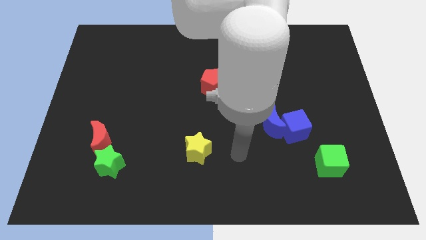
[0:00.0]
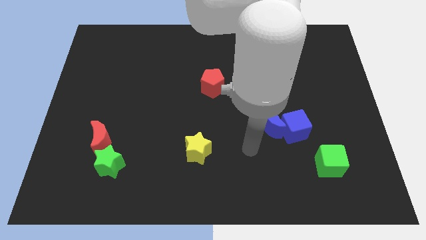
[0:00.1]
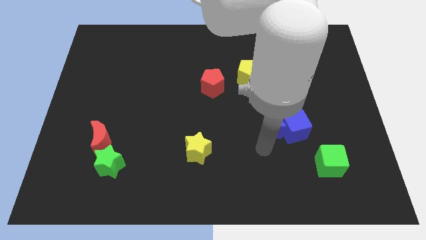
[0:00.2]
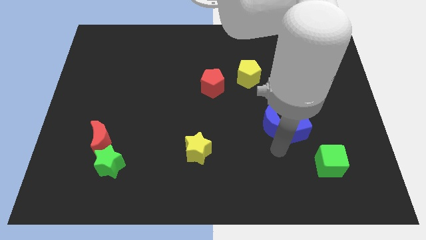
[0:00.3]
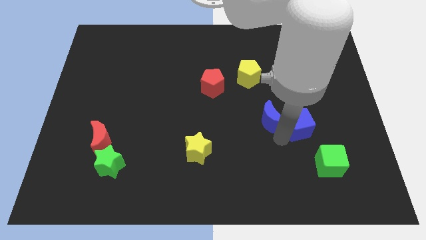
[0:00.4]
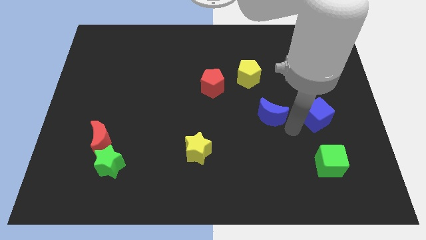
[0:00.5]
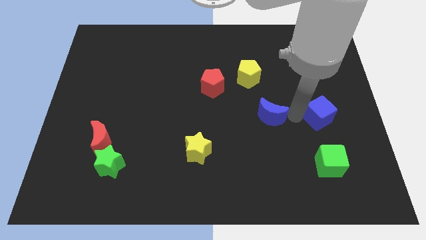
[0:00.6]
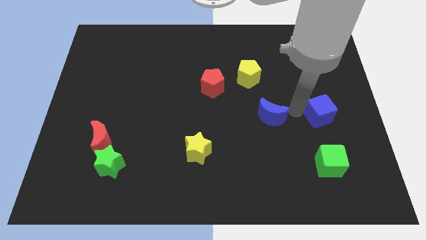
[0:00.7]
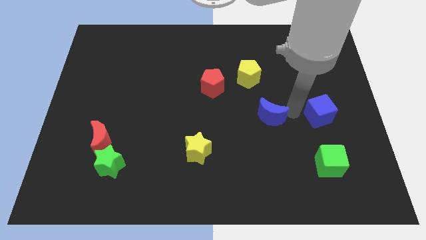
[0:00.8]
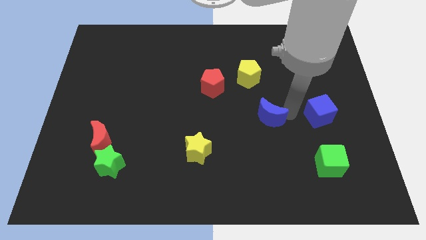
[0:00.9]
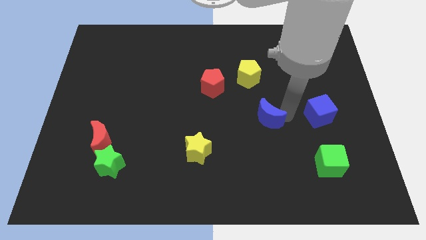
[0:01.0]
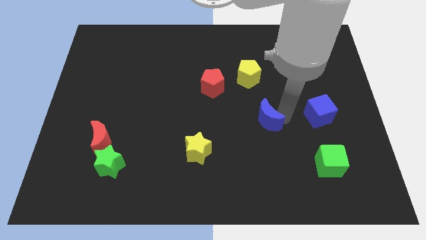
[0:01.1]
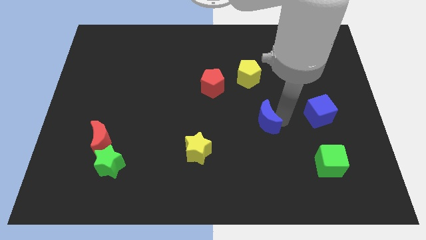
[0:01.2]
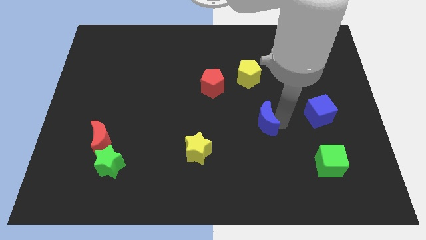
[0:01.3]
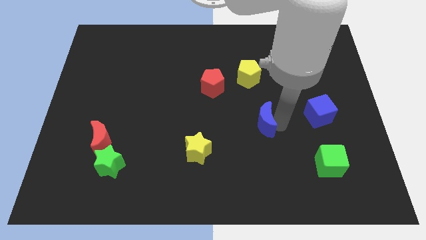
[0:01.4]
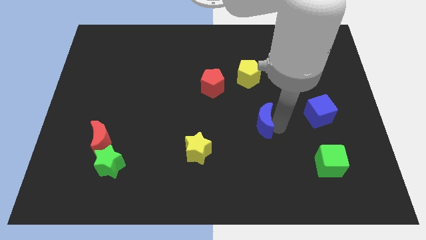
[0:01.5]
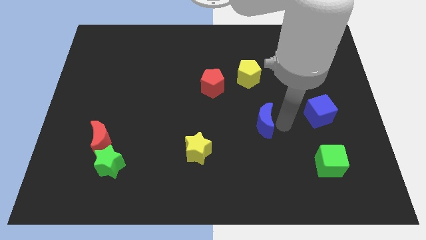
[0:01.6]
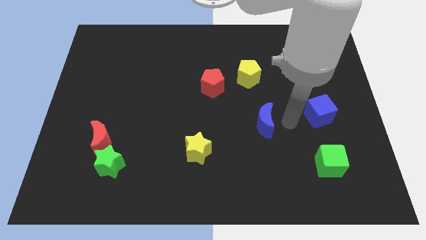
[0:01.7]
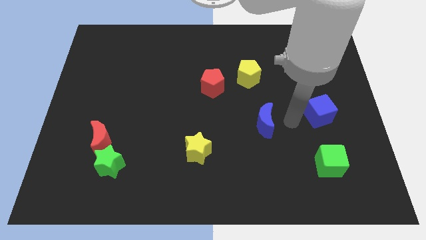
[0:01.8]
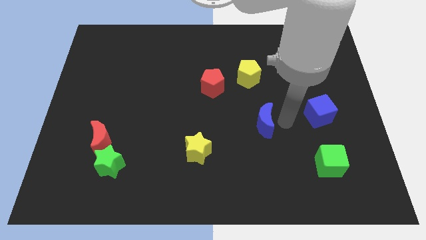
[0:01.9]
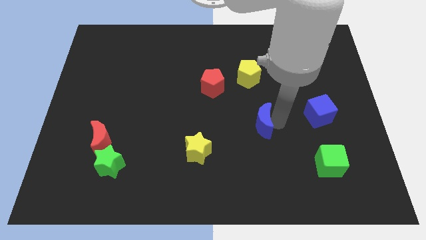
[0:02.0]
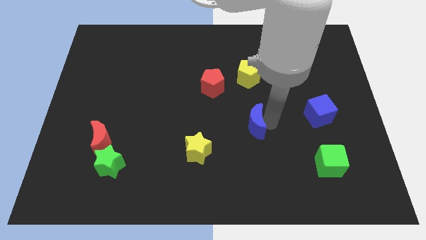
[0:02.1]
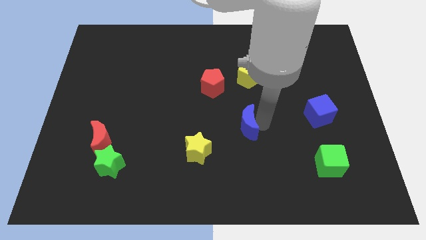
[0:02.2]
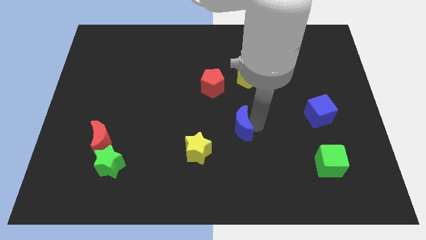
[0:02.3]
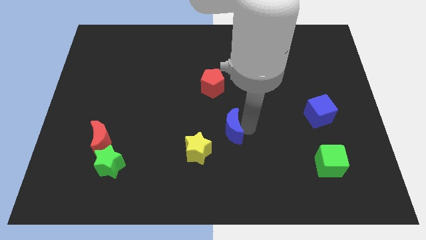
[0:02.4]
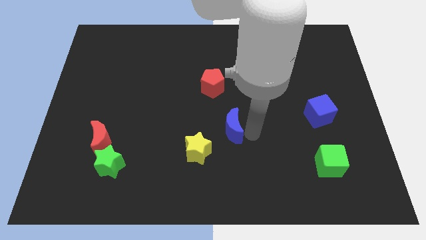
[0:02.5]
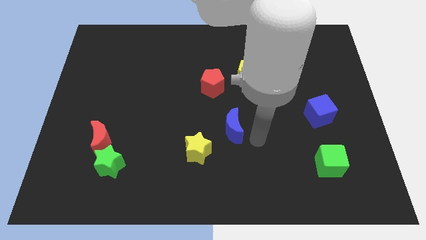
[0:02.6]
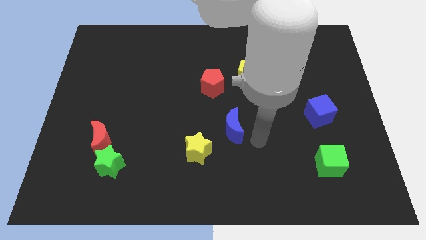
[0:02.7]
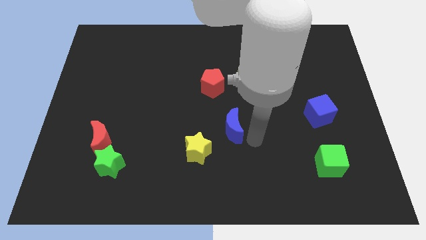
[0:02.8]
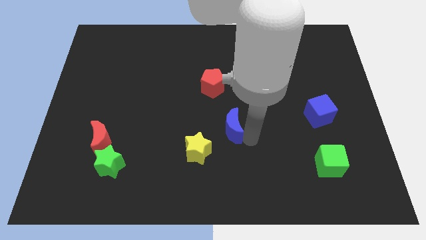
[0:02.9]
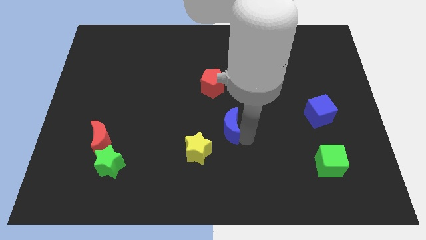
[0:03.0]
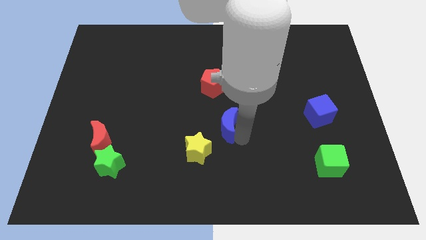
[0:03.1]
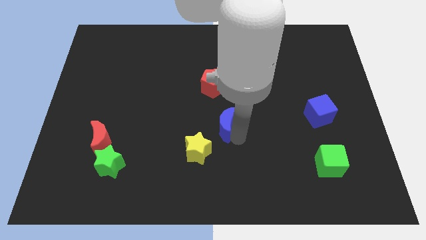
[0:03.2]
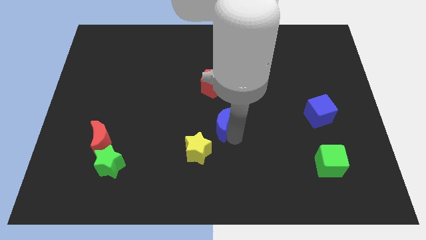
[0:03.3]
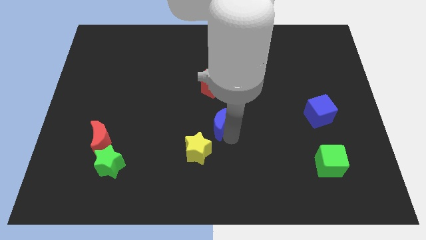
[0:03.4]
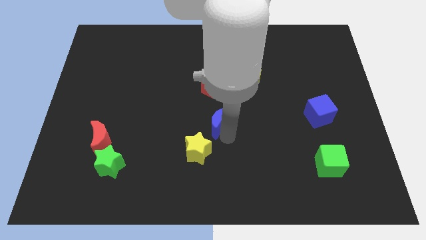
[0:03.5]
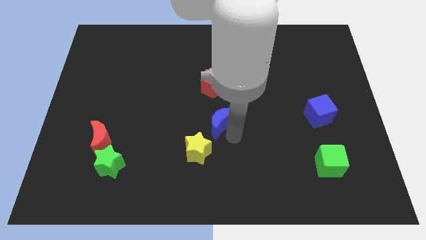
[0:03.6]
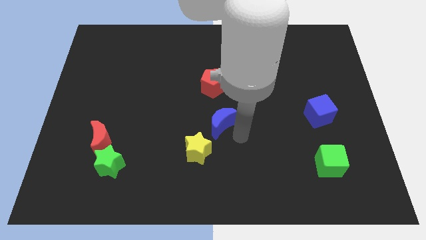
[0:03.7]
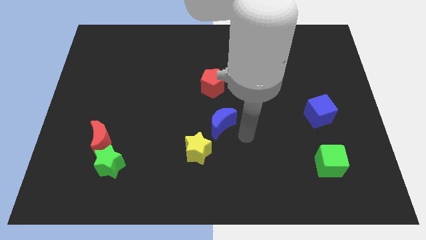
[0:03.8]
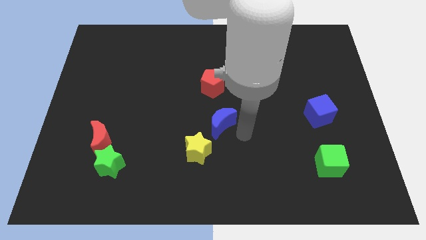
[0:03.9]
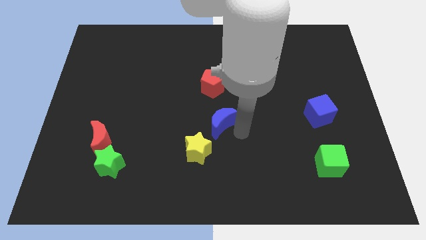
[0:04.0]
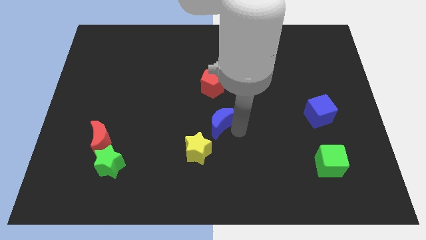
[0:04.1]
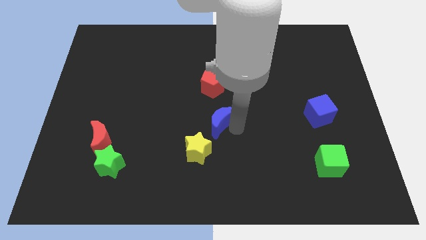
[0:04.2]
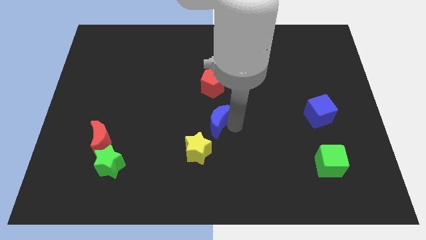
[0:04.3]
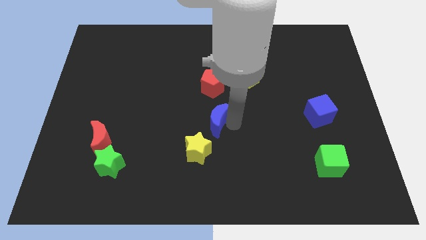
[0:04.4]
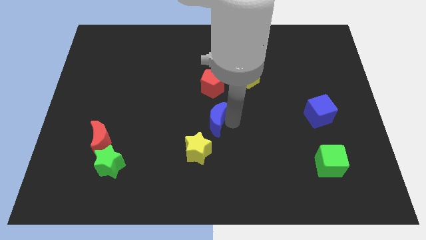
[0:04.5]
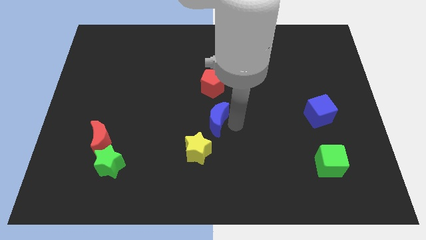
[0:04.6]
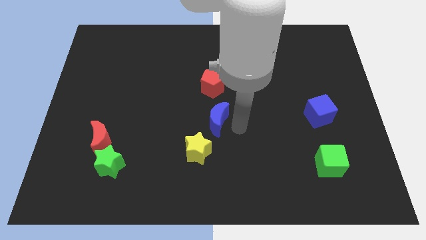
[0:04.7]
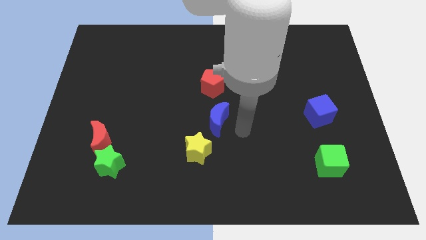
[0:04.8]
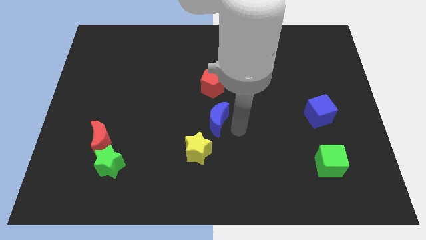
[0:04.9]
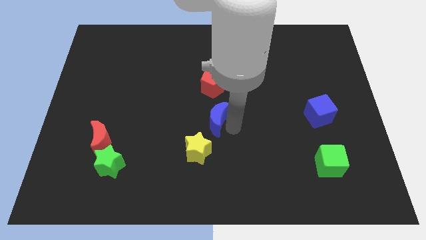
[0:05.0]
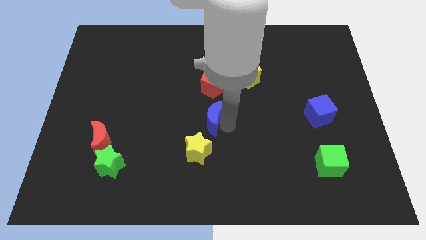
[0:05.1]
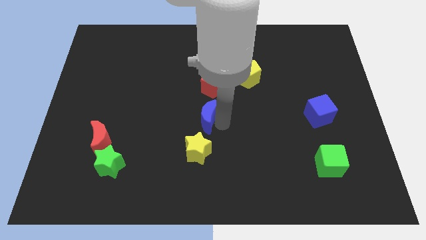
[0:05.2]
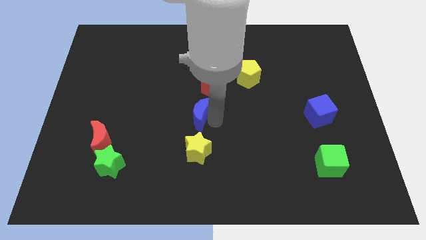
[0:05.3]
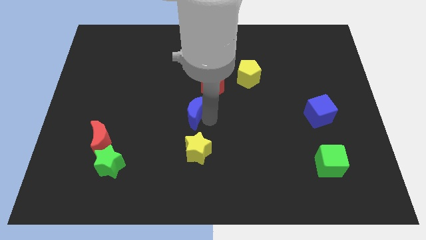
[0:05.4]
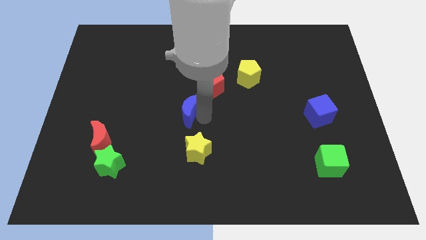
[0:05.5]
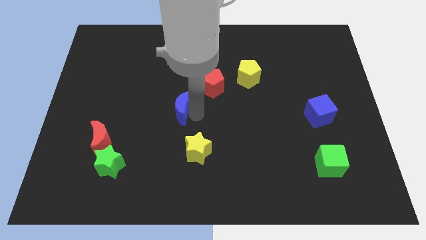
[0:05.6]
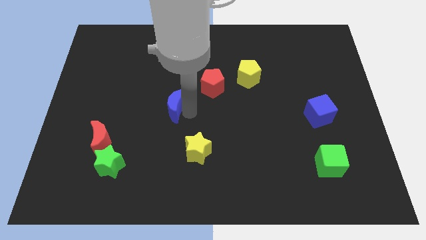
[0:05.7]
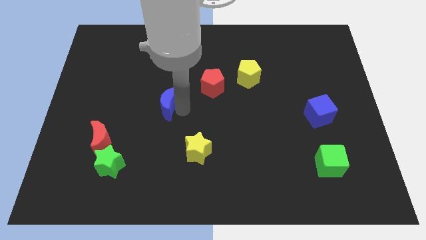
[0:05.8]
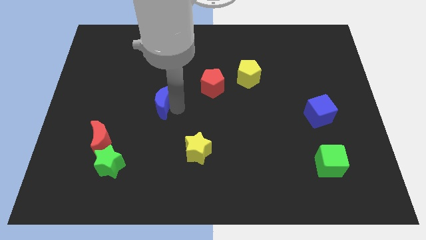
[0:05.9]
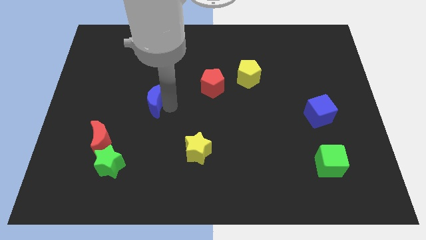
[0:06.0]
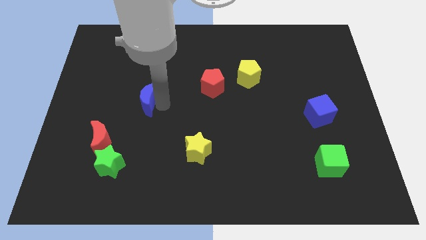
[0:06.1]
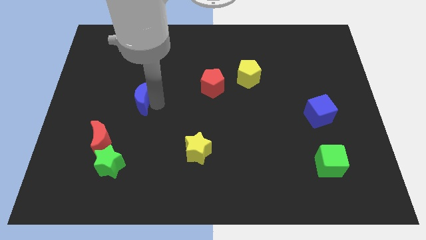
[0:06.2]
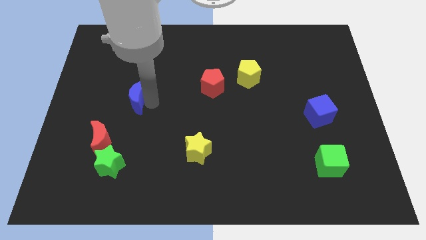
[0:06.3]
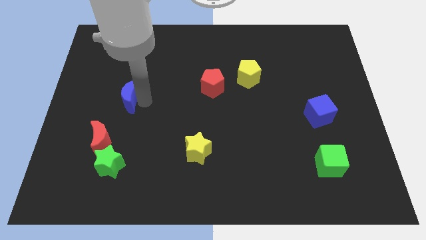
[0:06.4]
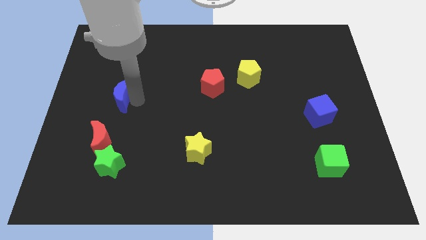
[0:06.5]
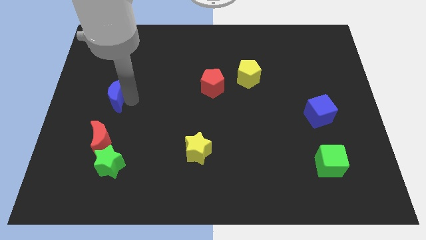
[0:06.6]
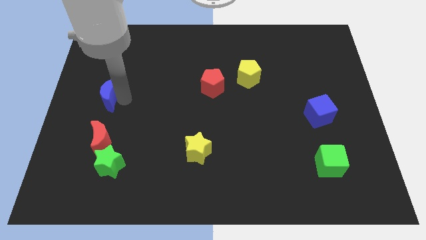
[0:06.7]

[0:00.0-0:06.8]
move the blue moon to the left side of the board

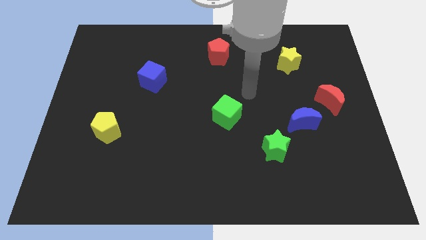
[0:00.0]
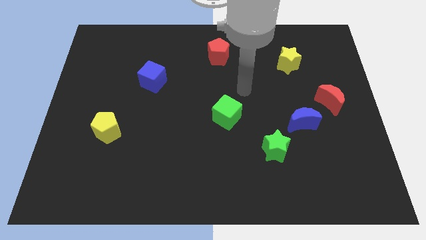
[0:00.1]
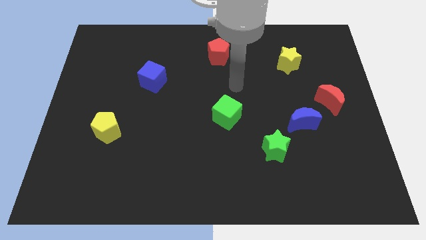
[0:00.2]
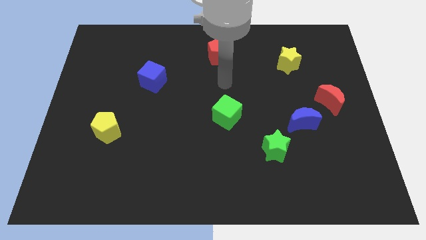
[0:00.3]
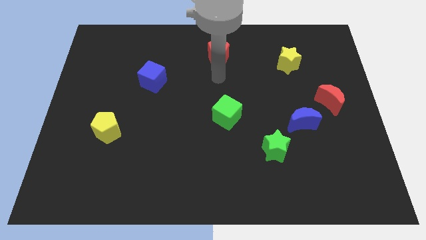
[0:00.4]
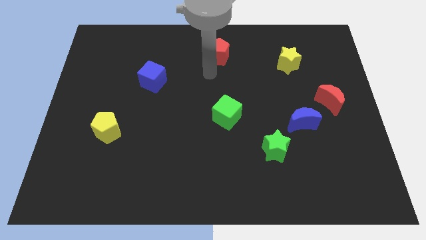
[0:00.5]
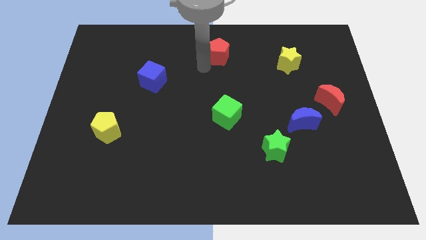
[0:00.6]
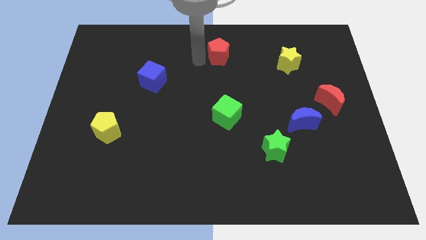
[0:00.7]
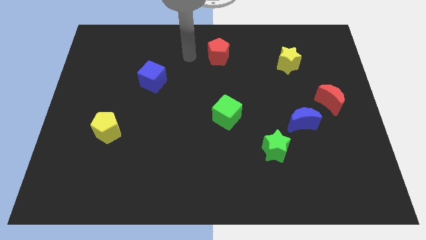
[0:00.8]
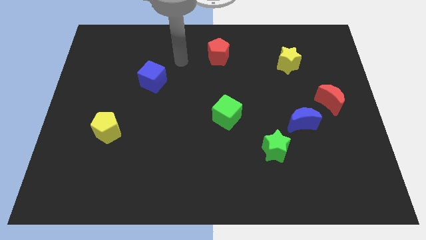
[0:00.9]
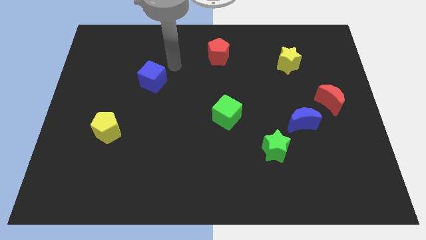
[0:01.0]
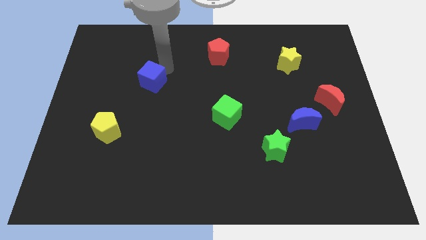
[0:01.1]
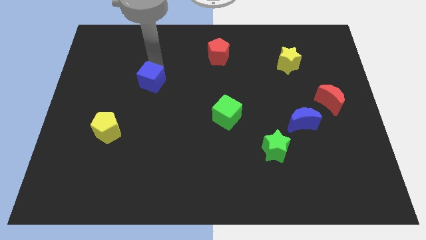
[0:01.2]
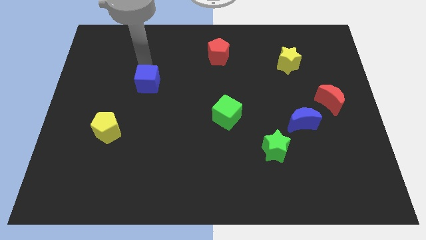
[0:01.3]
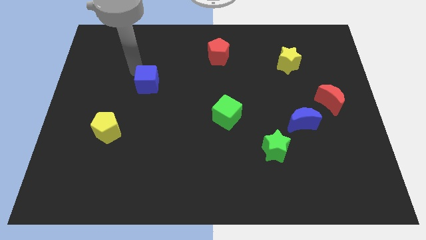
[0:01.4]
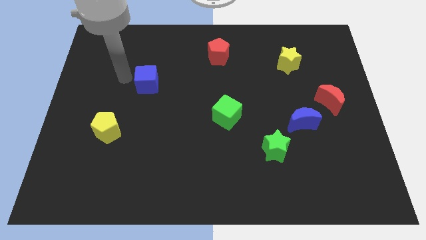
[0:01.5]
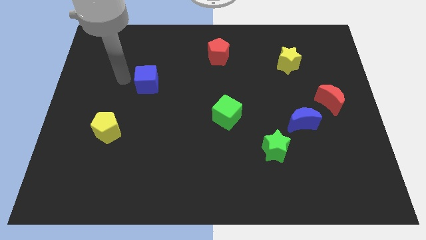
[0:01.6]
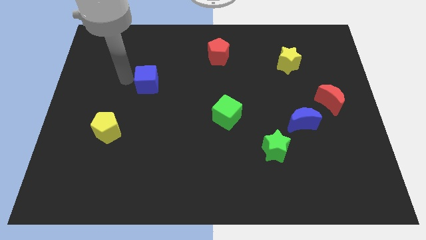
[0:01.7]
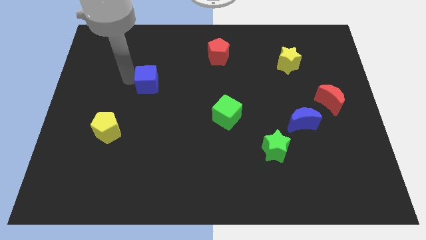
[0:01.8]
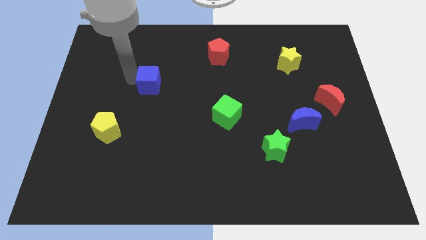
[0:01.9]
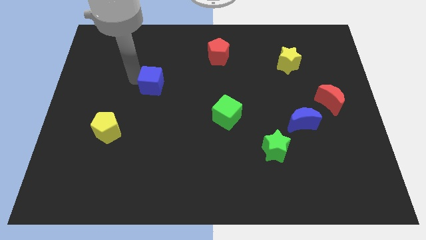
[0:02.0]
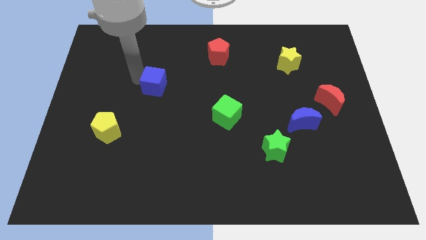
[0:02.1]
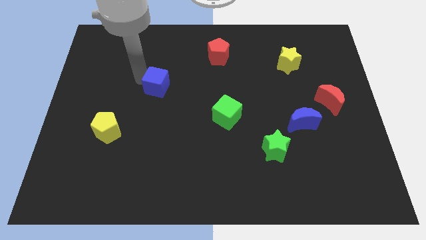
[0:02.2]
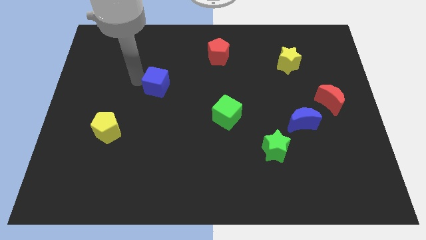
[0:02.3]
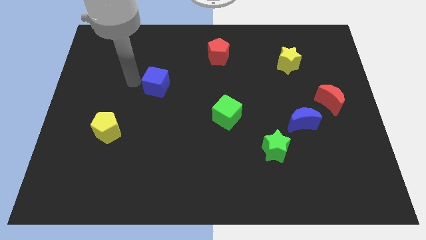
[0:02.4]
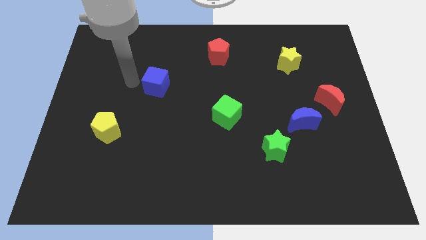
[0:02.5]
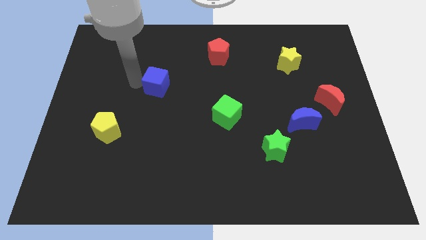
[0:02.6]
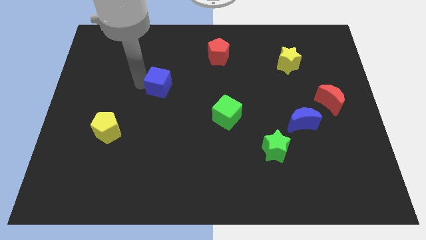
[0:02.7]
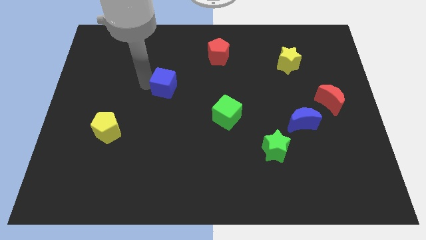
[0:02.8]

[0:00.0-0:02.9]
put the blue cube to the middle
